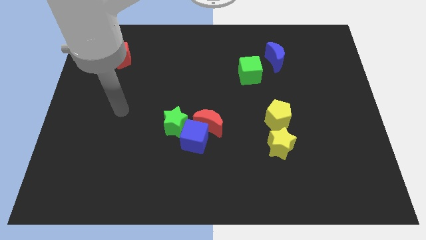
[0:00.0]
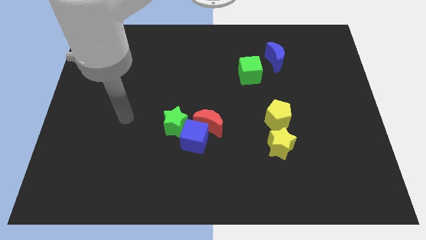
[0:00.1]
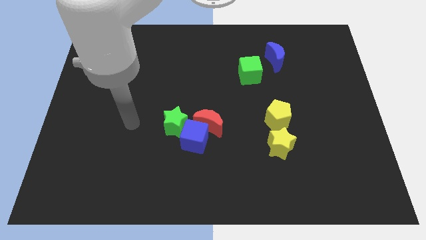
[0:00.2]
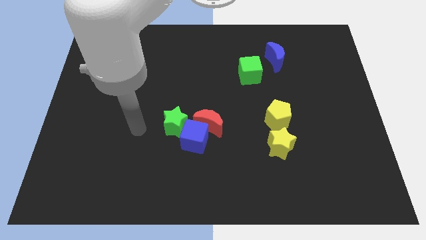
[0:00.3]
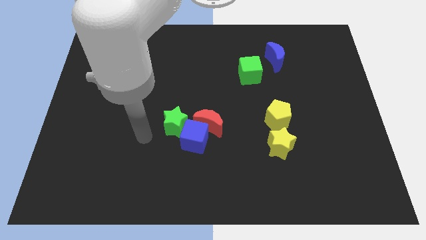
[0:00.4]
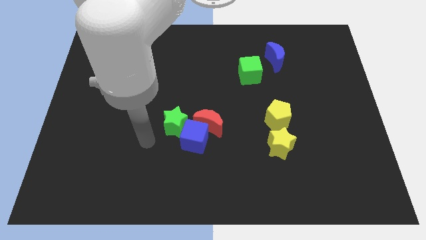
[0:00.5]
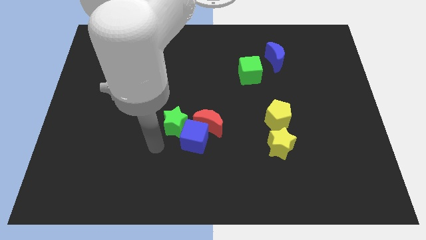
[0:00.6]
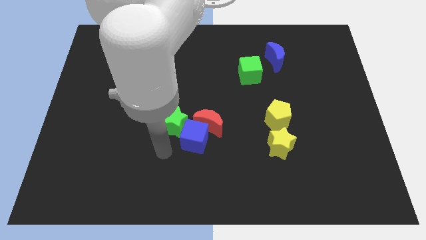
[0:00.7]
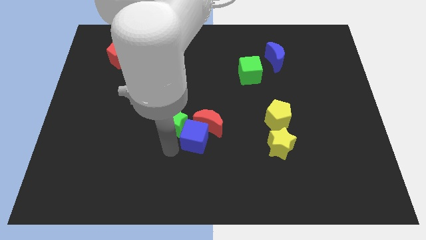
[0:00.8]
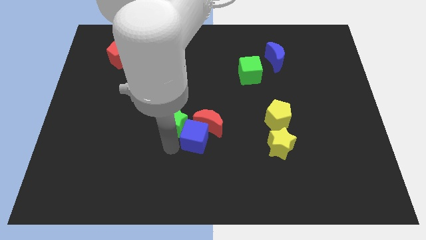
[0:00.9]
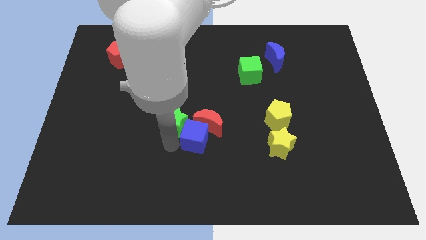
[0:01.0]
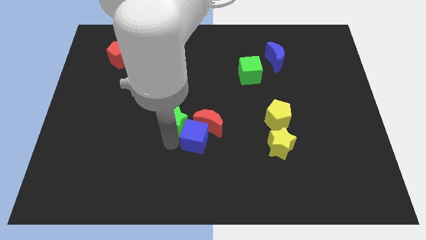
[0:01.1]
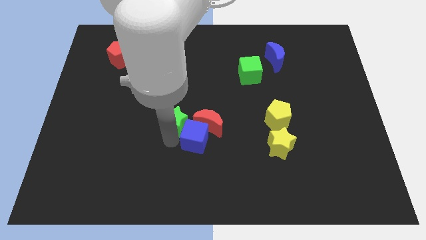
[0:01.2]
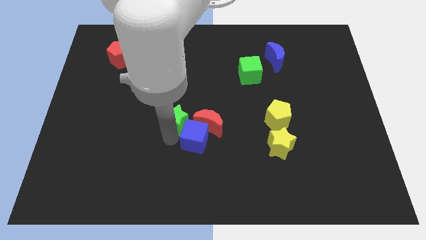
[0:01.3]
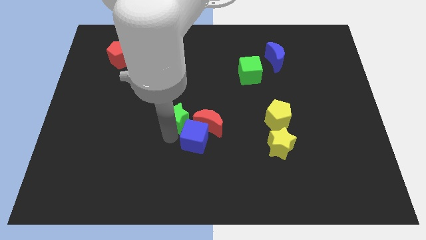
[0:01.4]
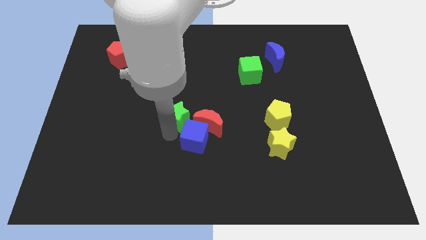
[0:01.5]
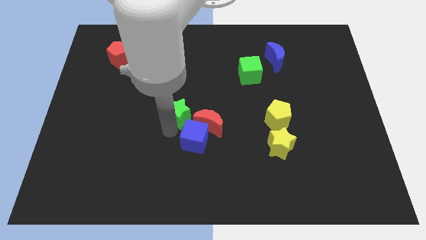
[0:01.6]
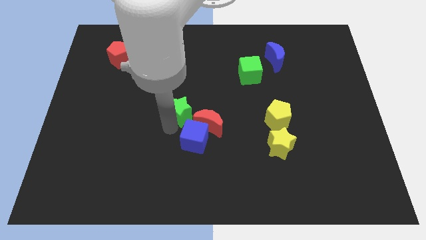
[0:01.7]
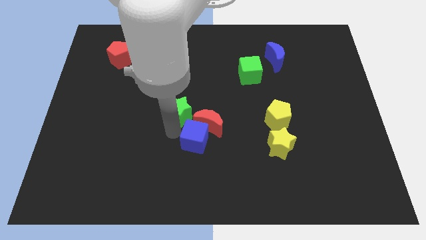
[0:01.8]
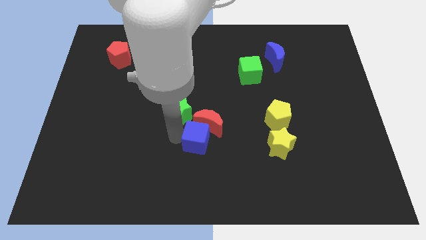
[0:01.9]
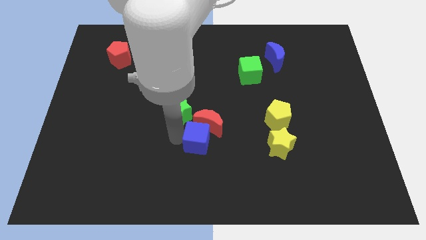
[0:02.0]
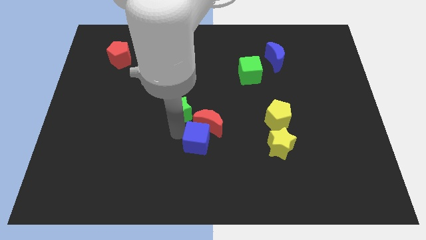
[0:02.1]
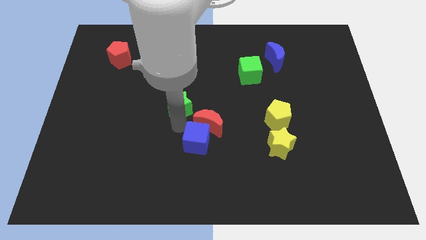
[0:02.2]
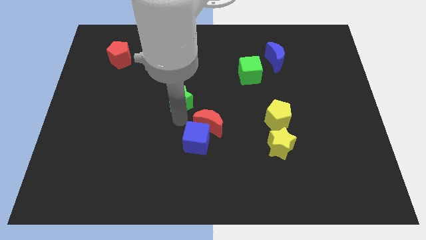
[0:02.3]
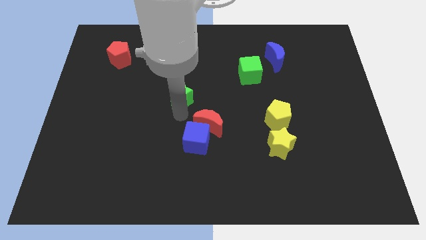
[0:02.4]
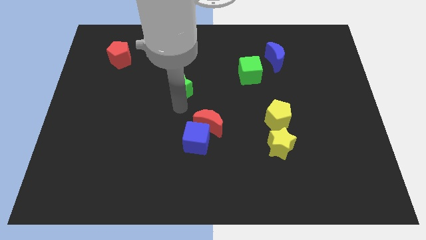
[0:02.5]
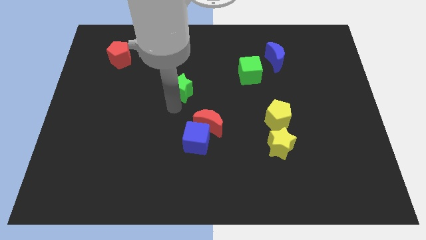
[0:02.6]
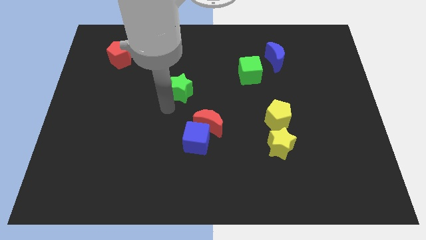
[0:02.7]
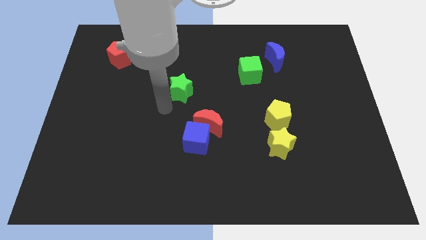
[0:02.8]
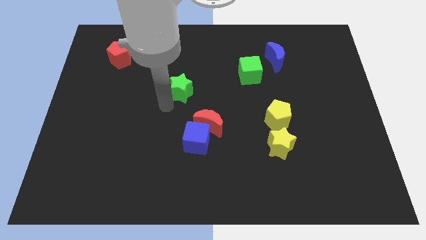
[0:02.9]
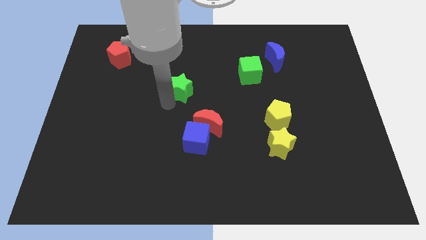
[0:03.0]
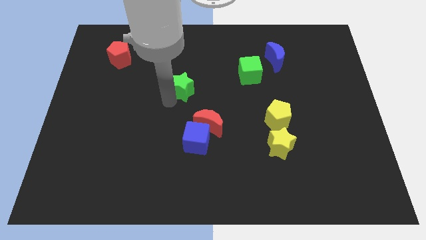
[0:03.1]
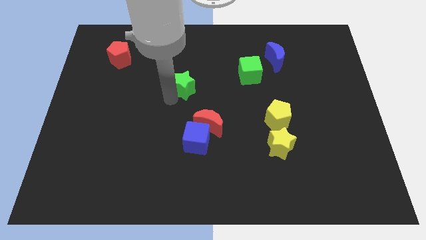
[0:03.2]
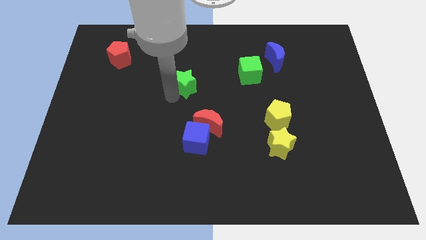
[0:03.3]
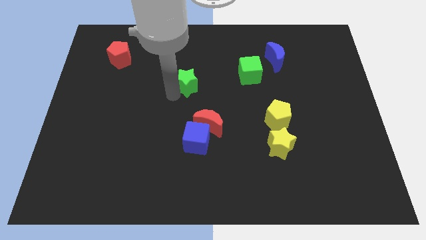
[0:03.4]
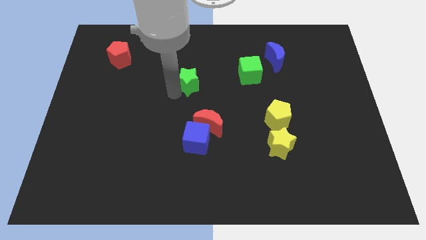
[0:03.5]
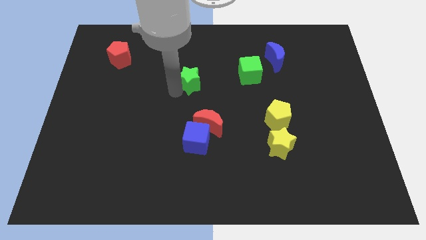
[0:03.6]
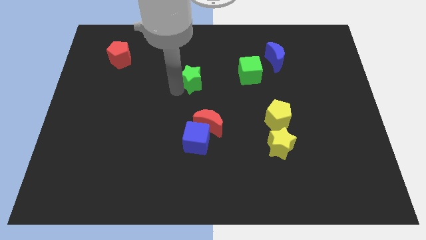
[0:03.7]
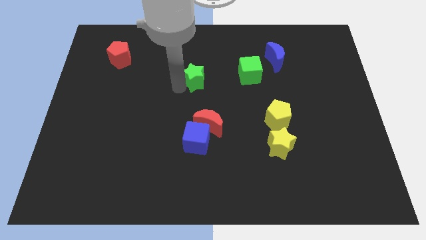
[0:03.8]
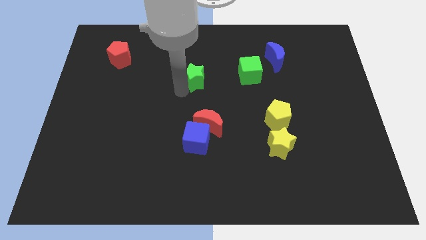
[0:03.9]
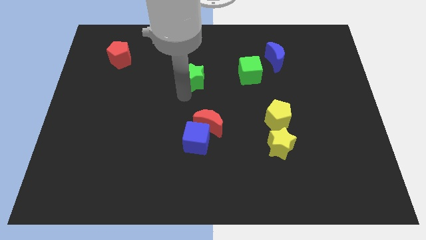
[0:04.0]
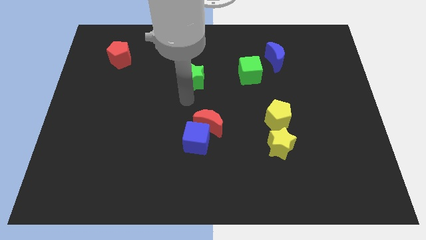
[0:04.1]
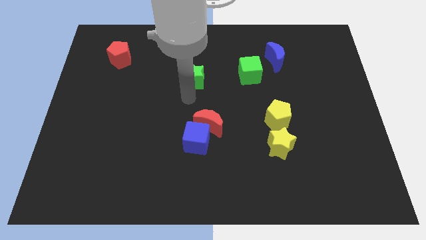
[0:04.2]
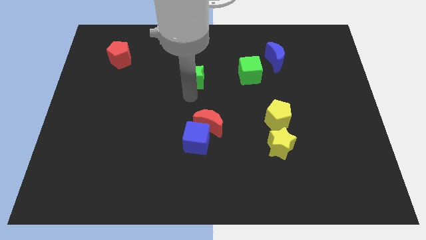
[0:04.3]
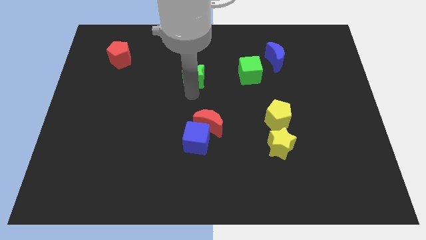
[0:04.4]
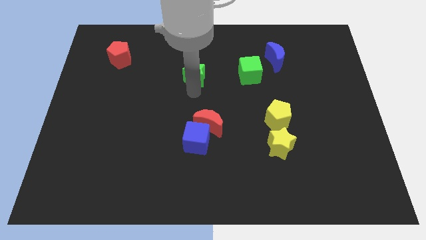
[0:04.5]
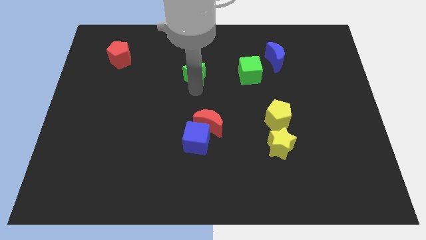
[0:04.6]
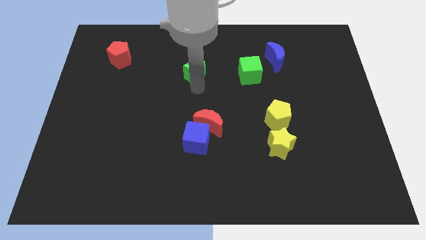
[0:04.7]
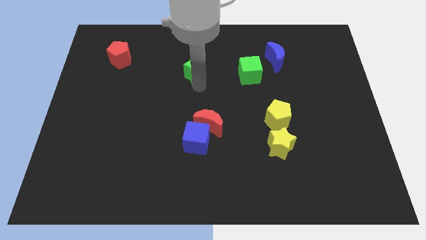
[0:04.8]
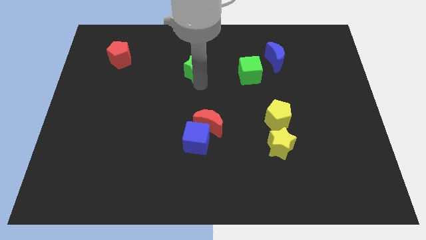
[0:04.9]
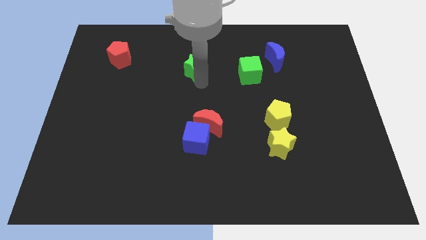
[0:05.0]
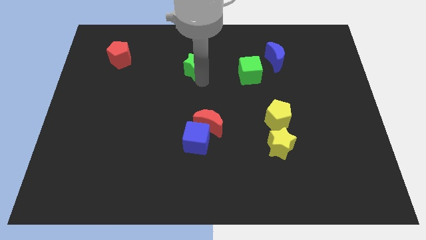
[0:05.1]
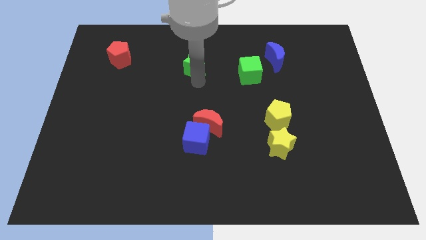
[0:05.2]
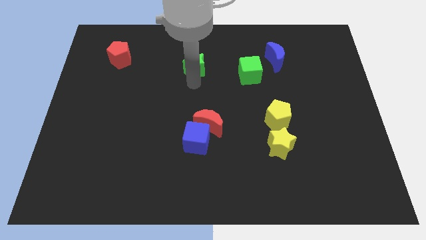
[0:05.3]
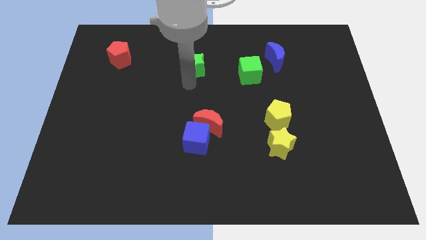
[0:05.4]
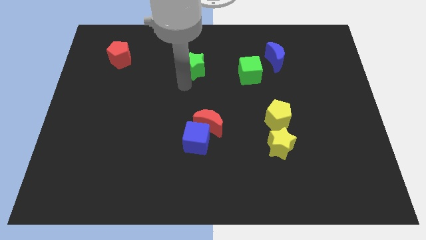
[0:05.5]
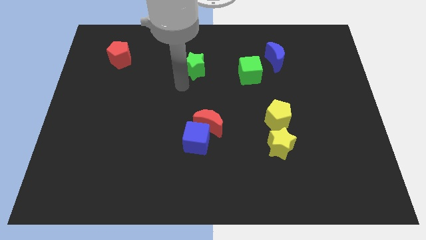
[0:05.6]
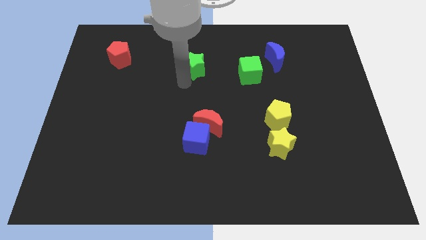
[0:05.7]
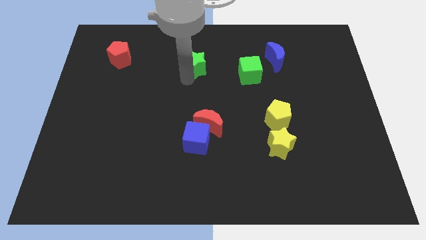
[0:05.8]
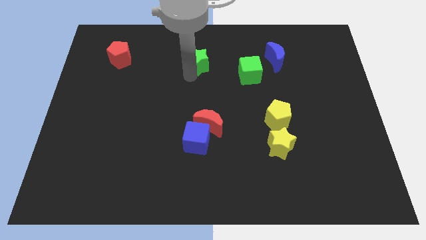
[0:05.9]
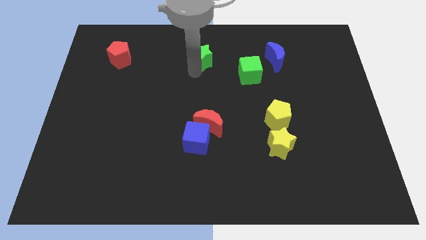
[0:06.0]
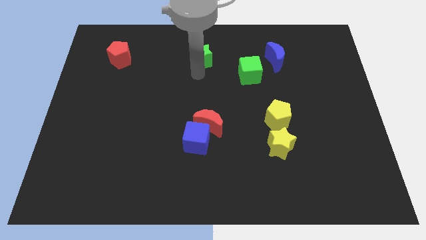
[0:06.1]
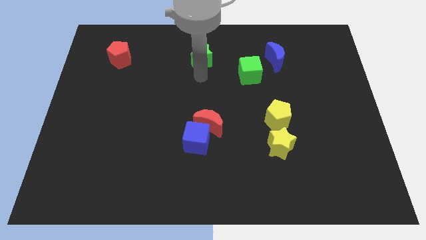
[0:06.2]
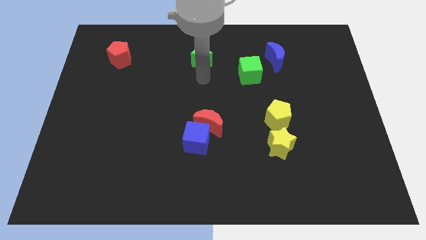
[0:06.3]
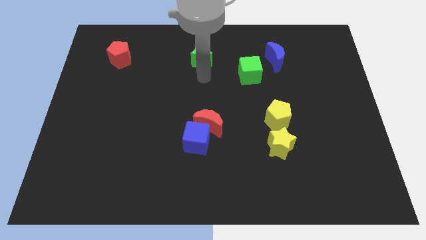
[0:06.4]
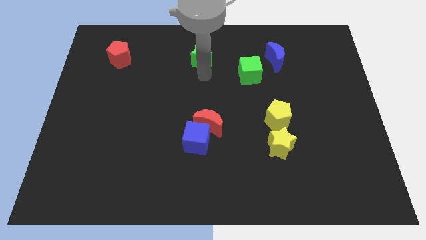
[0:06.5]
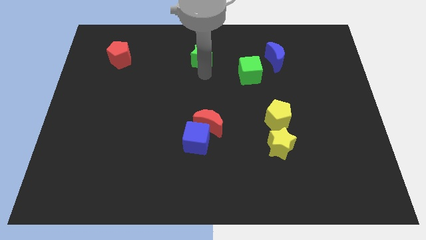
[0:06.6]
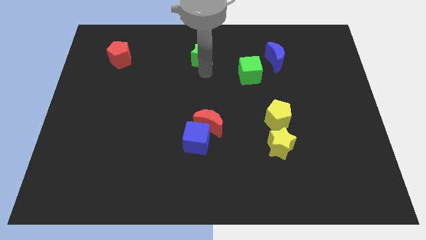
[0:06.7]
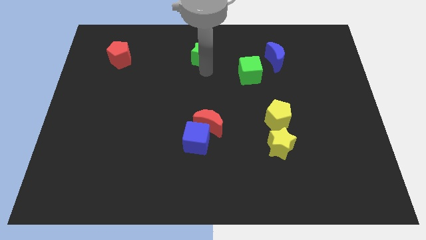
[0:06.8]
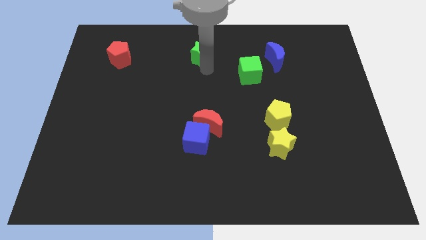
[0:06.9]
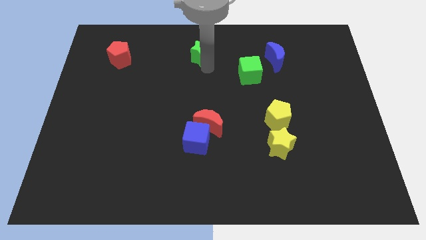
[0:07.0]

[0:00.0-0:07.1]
put the green star to the top side
